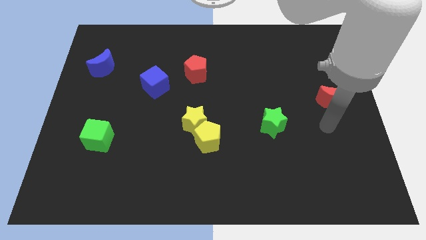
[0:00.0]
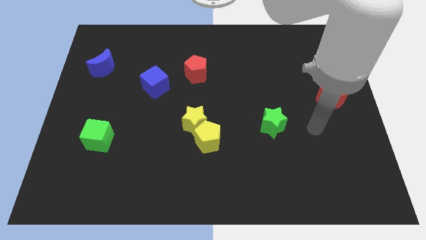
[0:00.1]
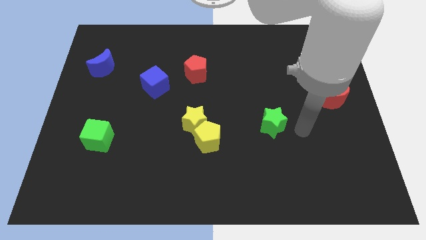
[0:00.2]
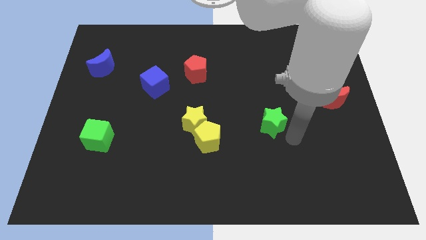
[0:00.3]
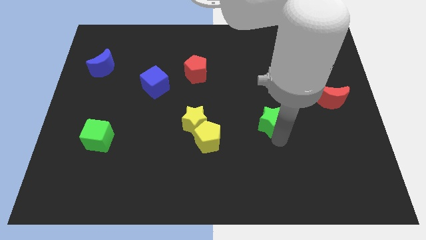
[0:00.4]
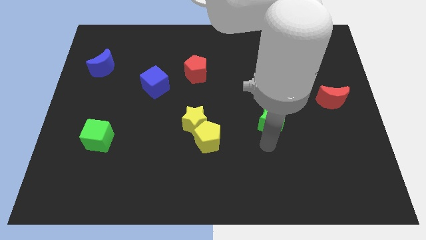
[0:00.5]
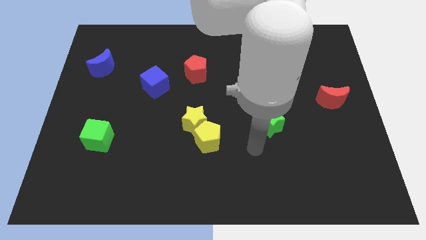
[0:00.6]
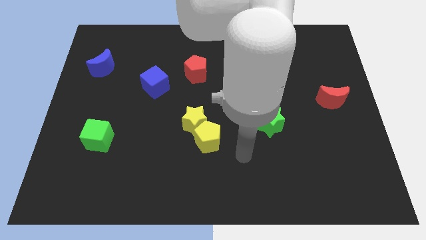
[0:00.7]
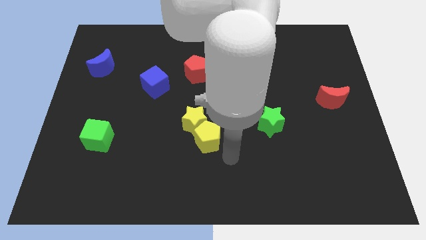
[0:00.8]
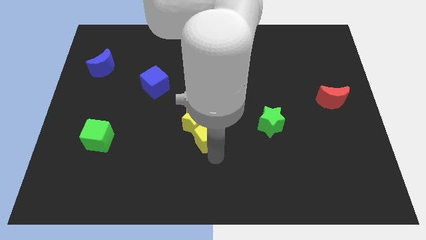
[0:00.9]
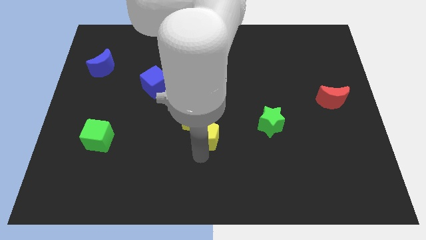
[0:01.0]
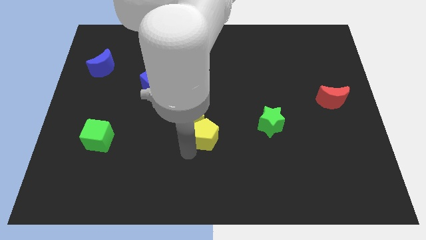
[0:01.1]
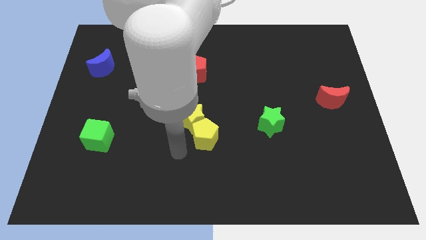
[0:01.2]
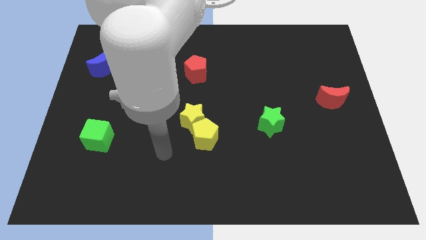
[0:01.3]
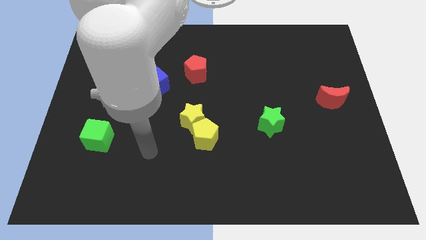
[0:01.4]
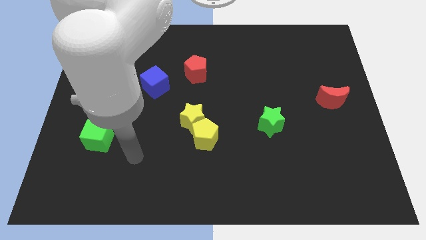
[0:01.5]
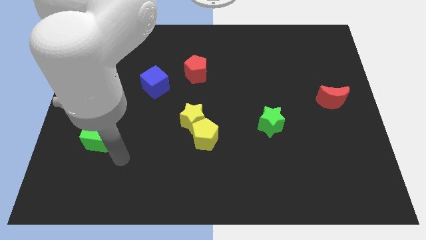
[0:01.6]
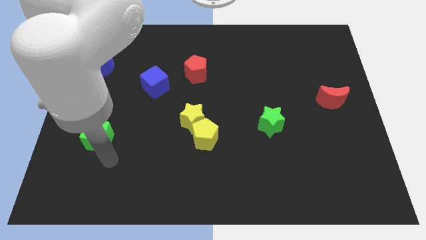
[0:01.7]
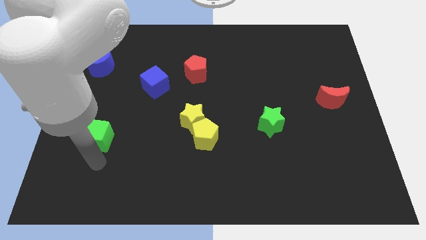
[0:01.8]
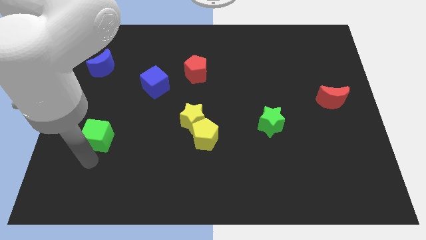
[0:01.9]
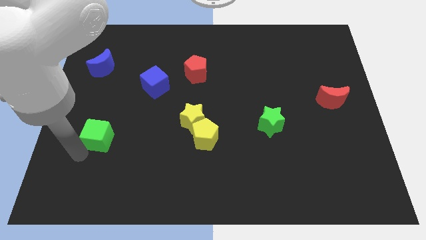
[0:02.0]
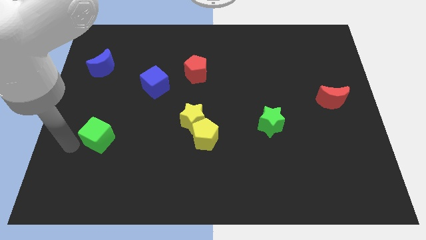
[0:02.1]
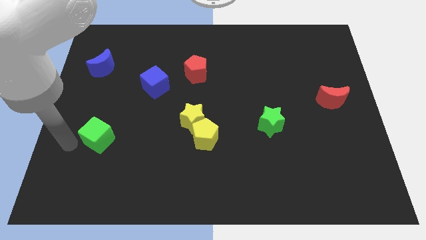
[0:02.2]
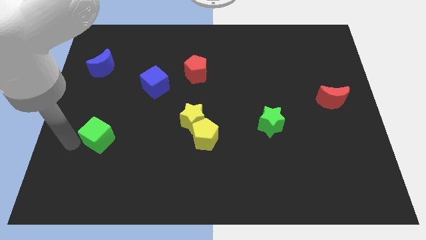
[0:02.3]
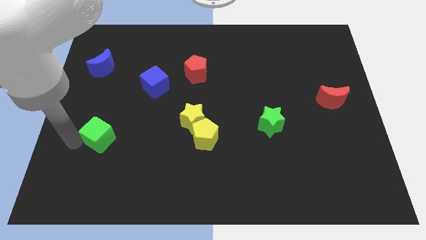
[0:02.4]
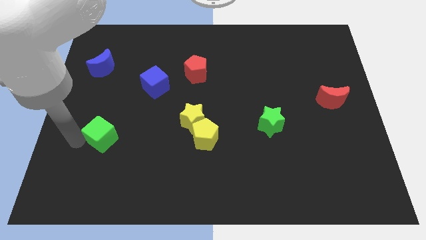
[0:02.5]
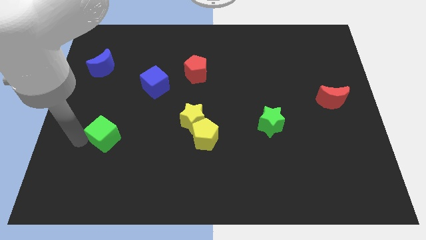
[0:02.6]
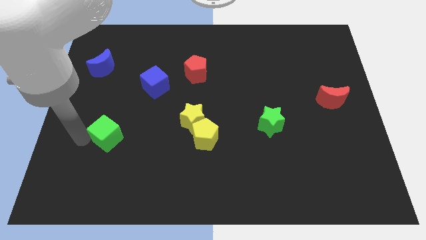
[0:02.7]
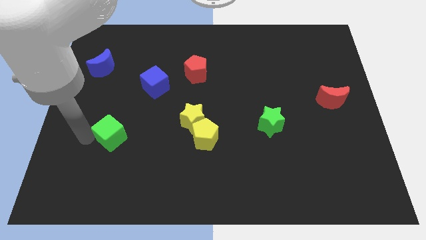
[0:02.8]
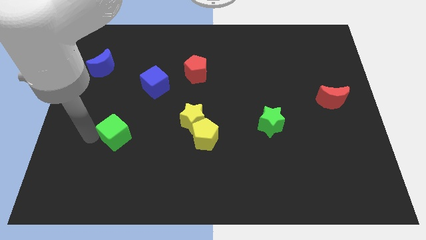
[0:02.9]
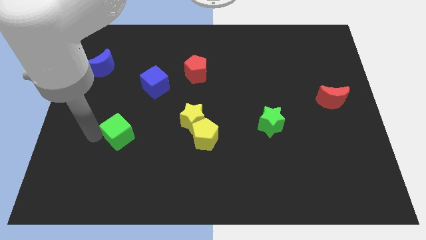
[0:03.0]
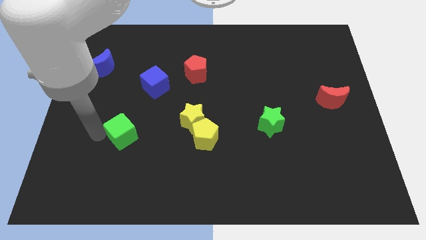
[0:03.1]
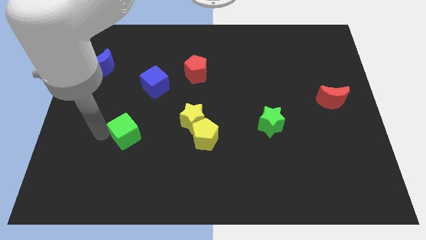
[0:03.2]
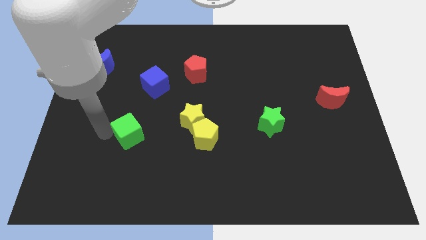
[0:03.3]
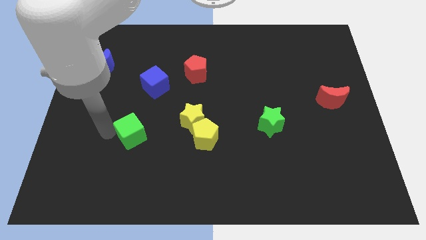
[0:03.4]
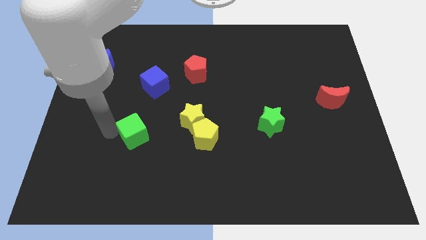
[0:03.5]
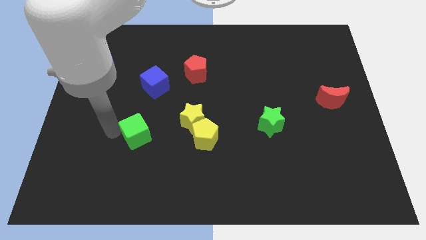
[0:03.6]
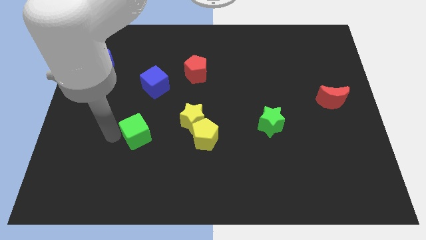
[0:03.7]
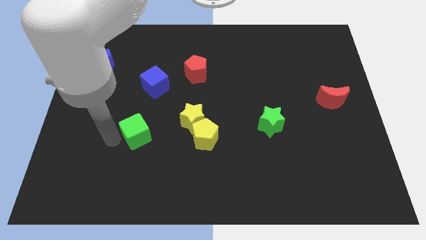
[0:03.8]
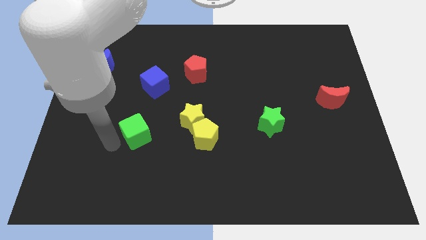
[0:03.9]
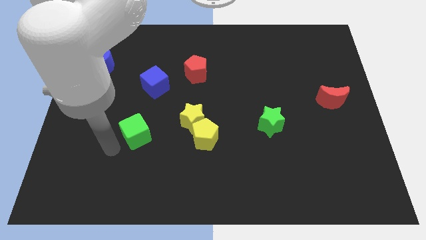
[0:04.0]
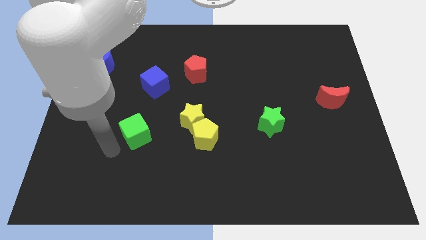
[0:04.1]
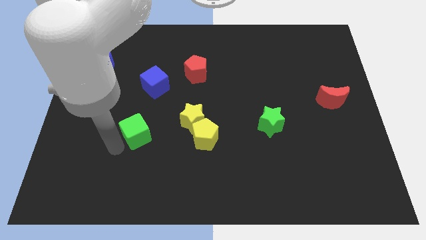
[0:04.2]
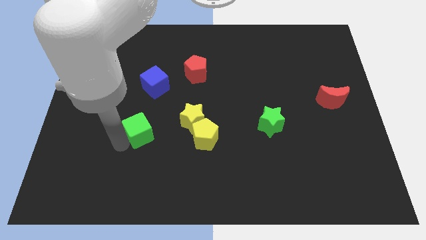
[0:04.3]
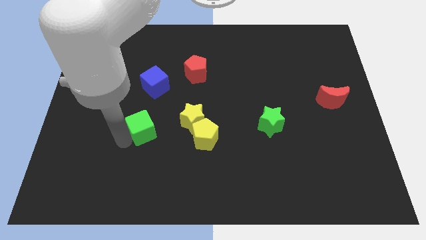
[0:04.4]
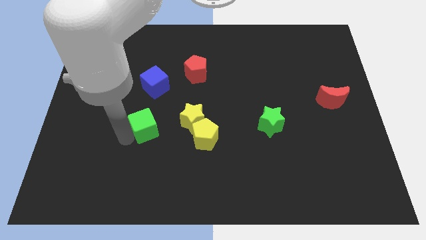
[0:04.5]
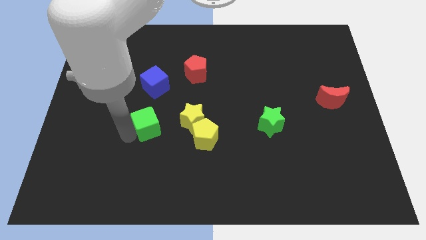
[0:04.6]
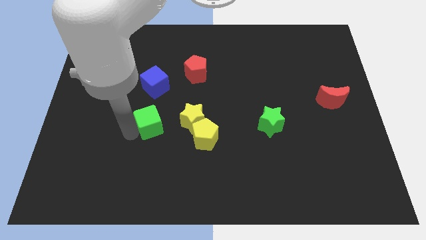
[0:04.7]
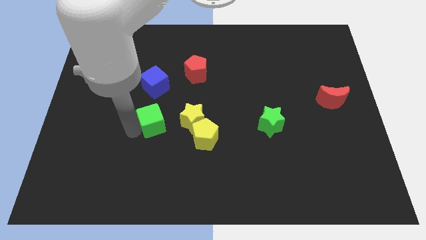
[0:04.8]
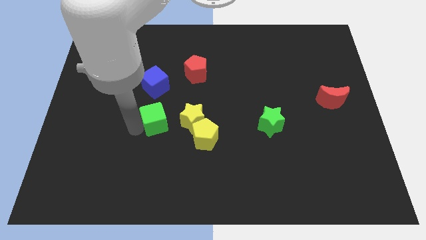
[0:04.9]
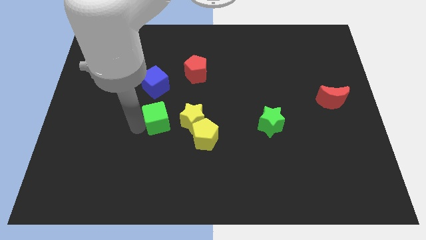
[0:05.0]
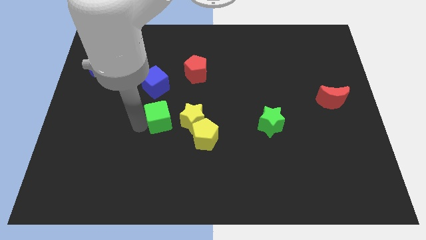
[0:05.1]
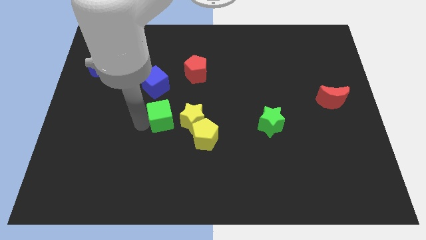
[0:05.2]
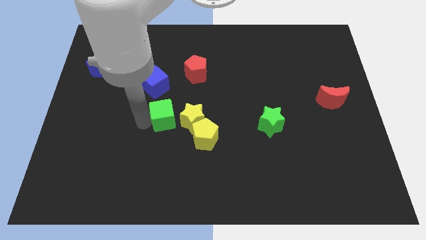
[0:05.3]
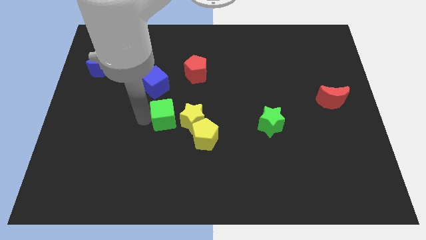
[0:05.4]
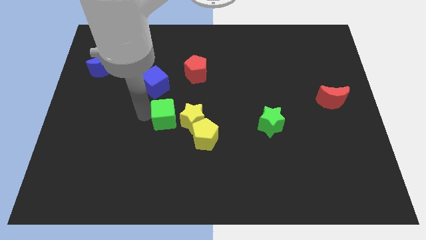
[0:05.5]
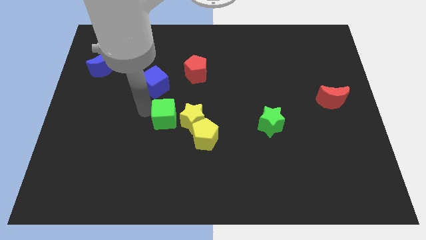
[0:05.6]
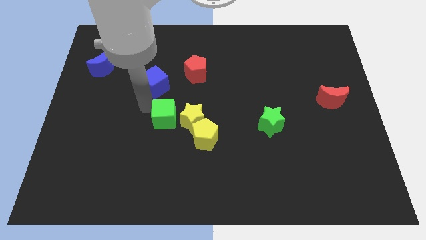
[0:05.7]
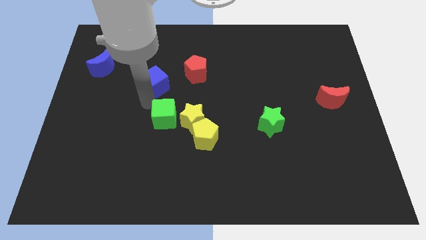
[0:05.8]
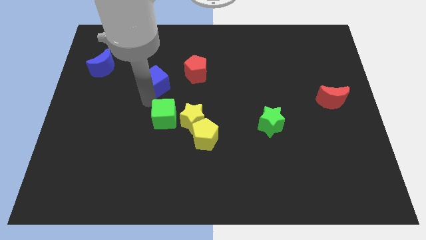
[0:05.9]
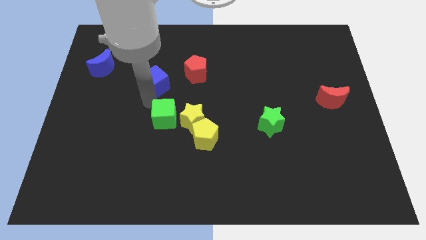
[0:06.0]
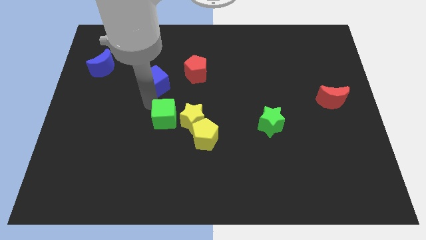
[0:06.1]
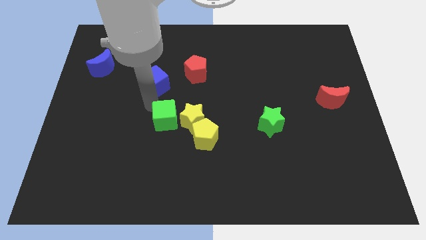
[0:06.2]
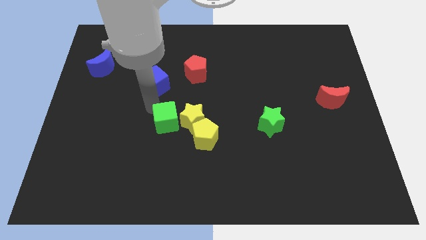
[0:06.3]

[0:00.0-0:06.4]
push the green cube to the yellow star

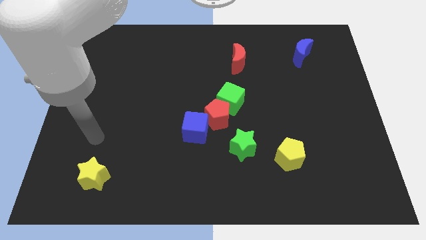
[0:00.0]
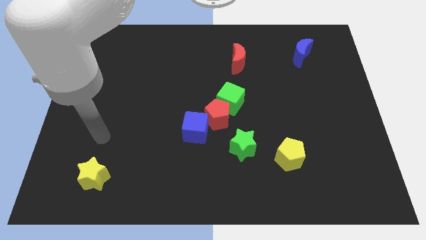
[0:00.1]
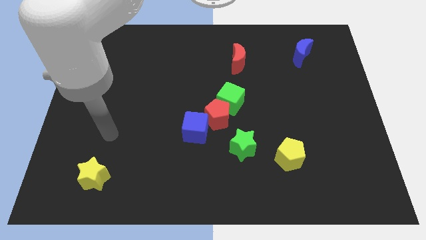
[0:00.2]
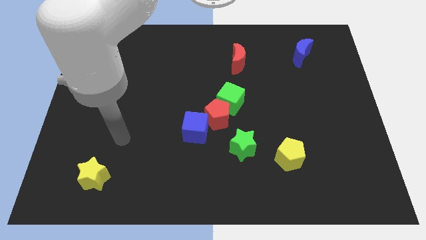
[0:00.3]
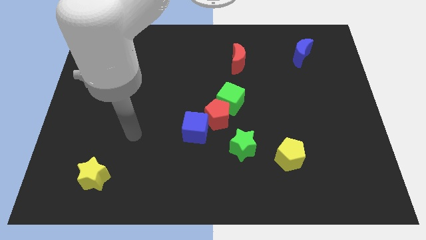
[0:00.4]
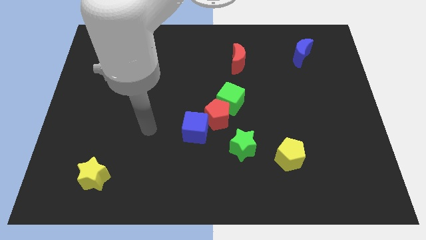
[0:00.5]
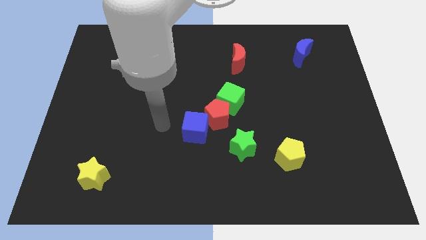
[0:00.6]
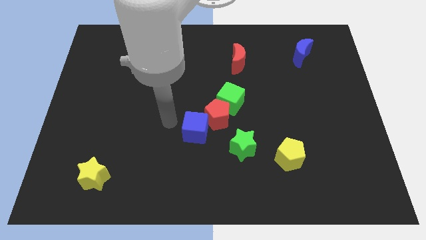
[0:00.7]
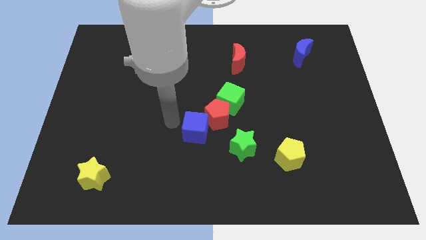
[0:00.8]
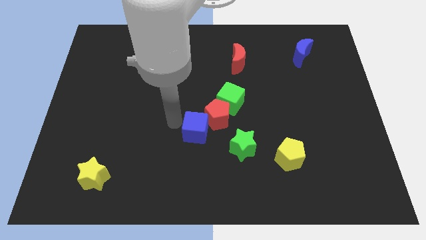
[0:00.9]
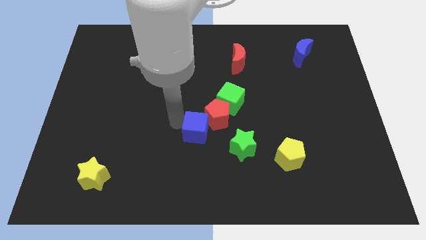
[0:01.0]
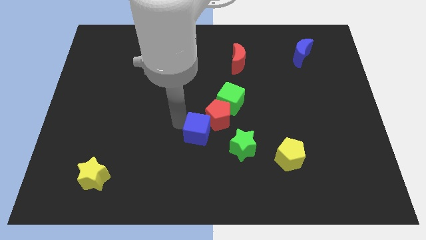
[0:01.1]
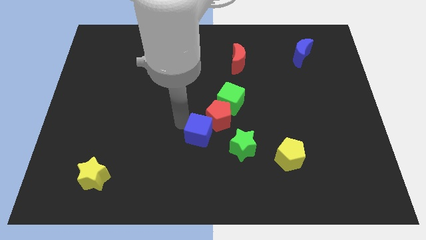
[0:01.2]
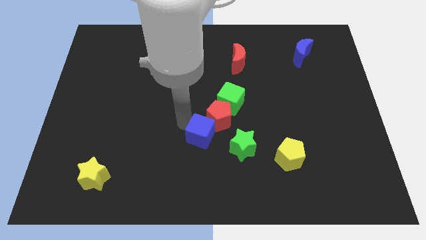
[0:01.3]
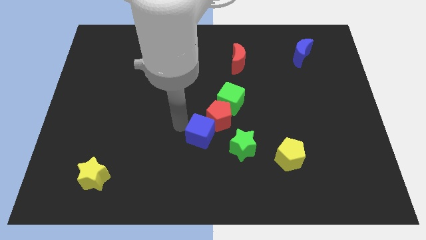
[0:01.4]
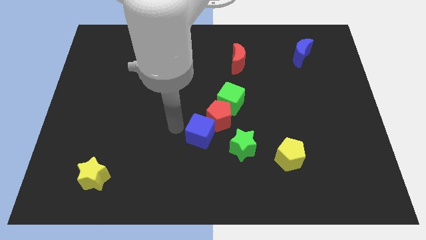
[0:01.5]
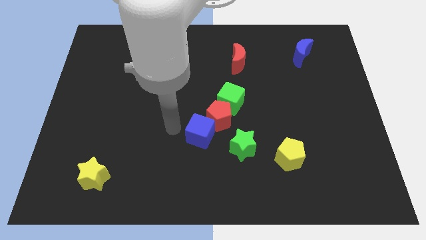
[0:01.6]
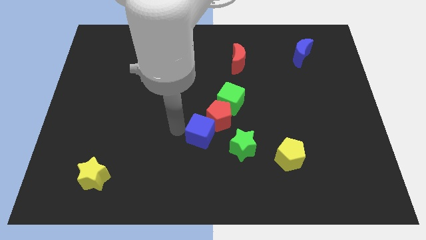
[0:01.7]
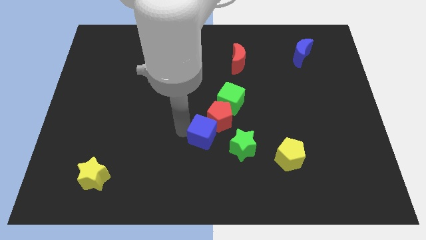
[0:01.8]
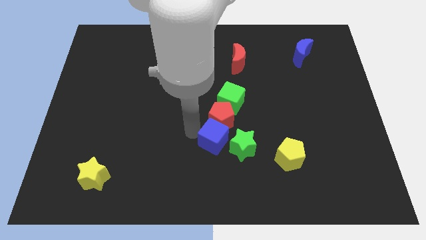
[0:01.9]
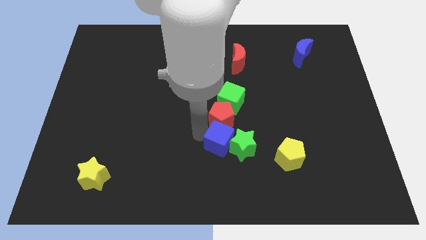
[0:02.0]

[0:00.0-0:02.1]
slide the blue cube to the green star
